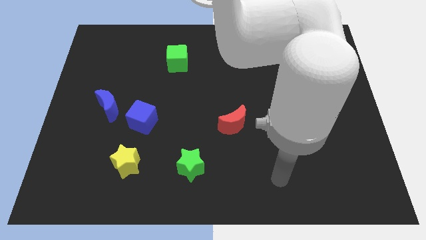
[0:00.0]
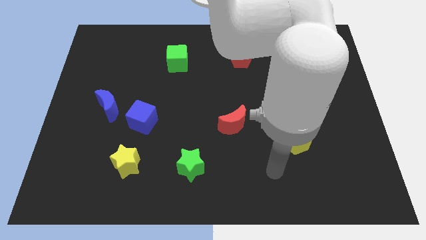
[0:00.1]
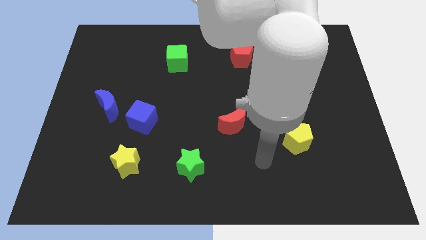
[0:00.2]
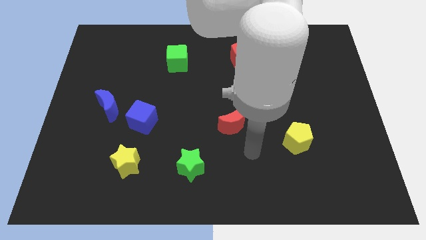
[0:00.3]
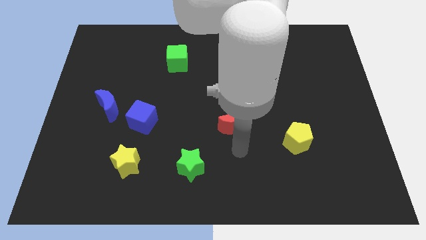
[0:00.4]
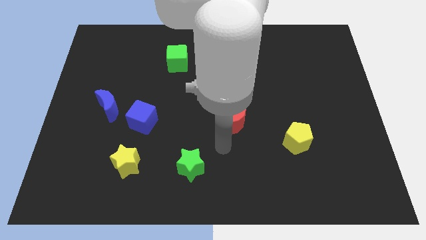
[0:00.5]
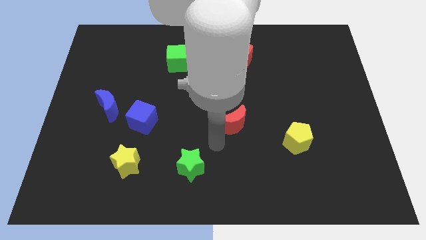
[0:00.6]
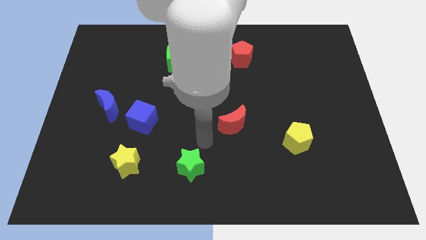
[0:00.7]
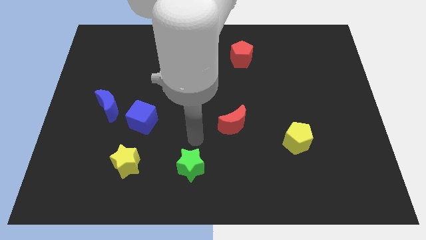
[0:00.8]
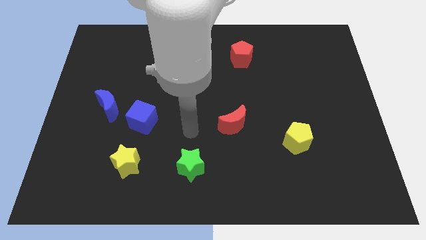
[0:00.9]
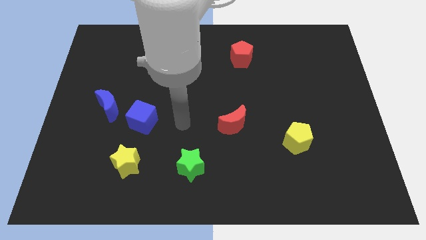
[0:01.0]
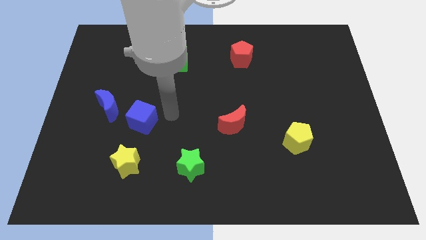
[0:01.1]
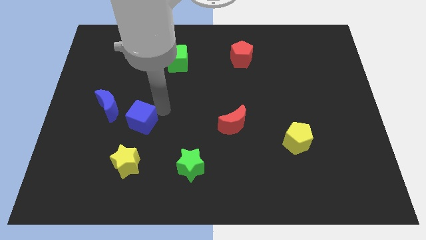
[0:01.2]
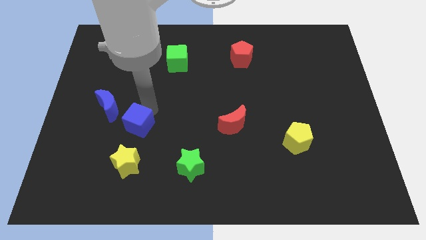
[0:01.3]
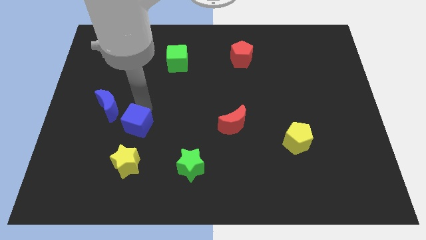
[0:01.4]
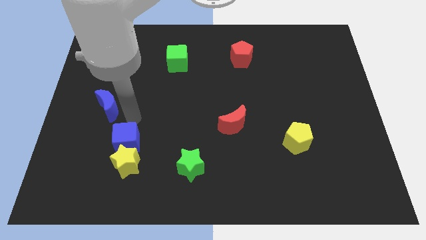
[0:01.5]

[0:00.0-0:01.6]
pull the blue moon apart from the blue cube

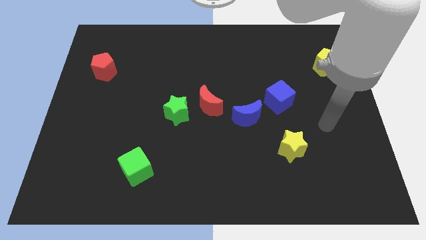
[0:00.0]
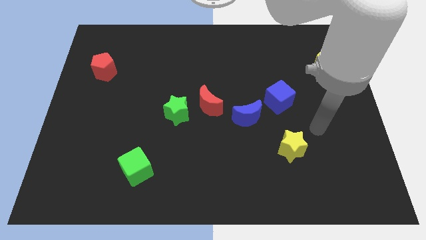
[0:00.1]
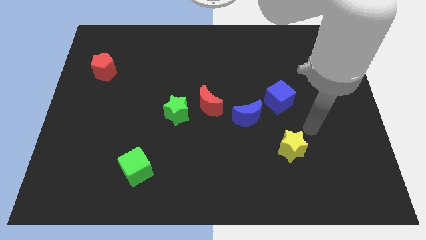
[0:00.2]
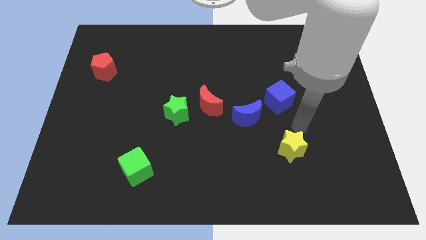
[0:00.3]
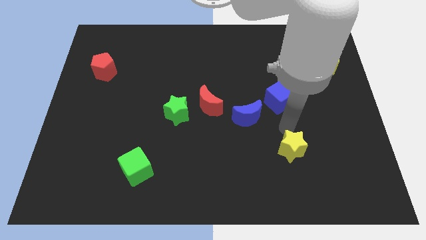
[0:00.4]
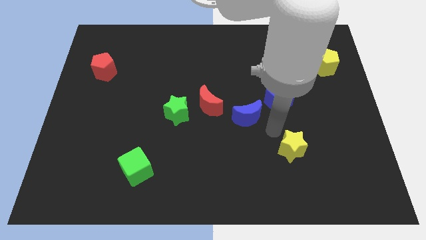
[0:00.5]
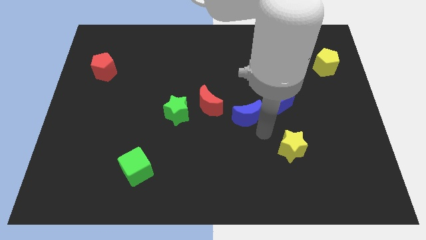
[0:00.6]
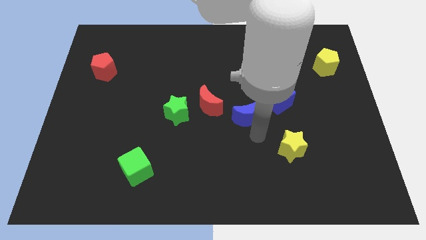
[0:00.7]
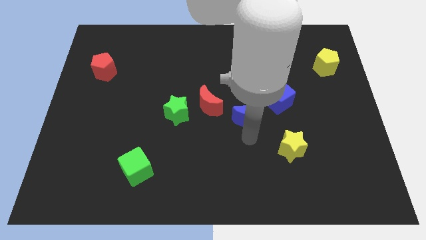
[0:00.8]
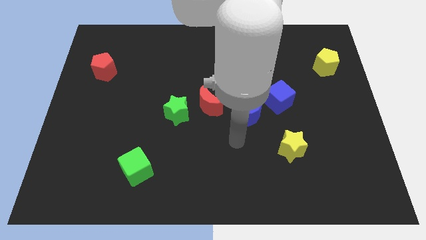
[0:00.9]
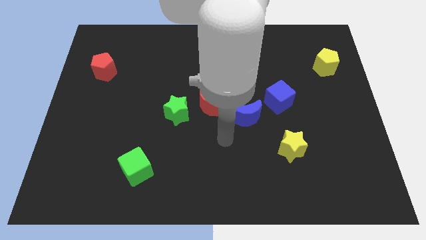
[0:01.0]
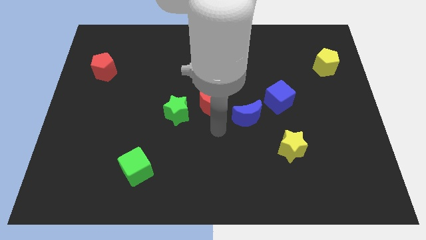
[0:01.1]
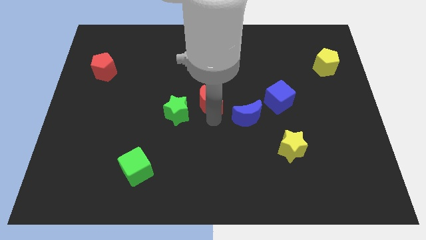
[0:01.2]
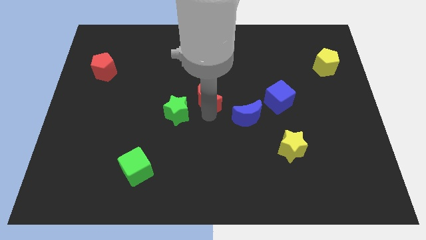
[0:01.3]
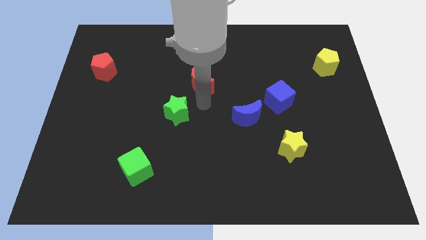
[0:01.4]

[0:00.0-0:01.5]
pull the green star apart from the red moon

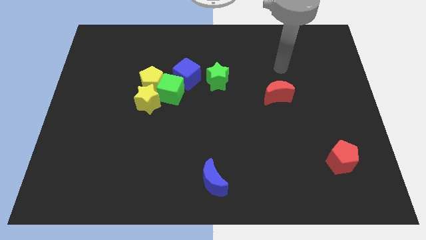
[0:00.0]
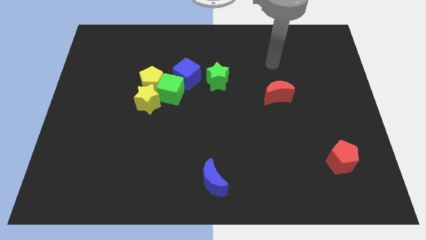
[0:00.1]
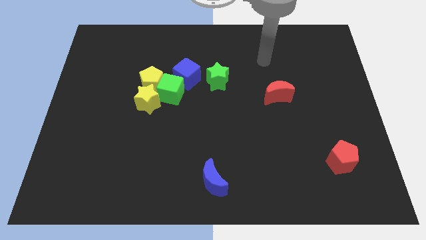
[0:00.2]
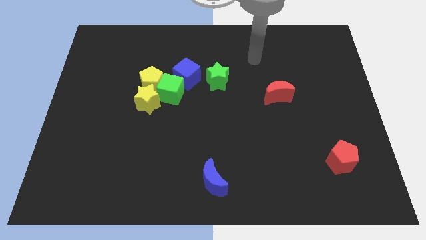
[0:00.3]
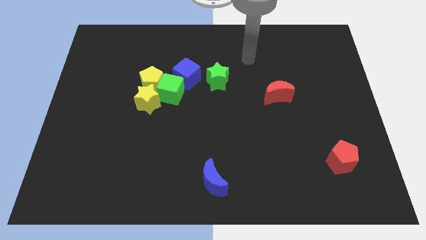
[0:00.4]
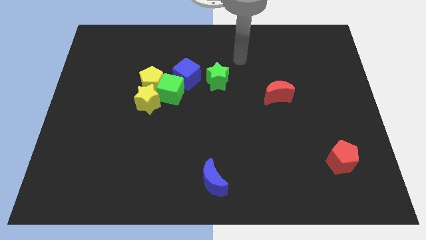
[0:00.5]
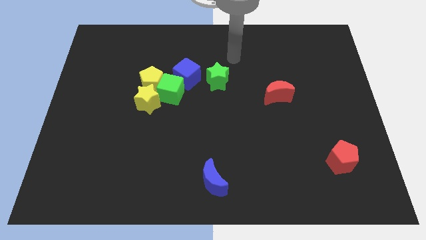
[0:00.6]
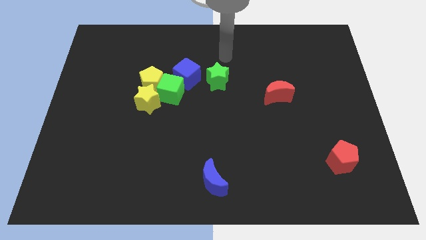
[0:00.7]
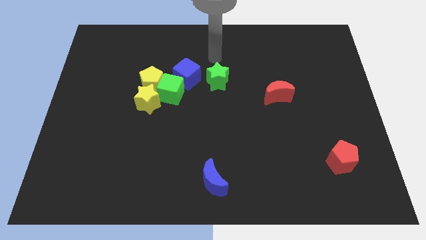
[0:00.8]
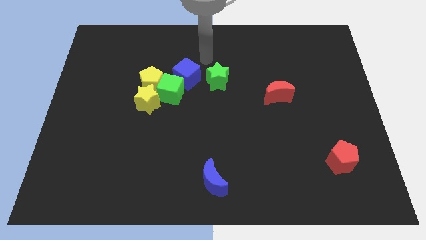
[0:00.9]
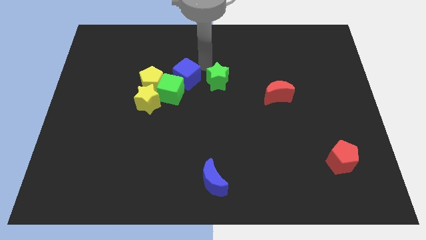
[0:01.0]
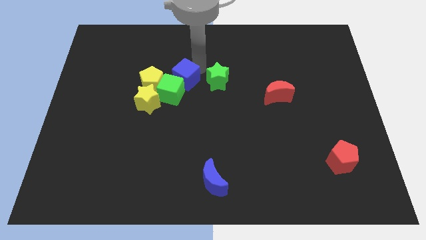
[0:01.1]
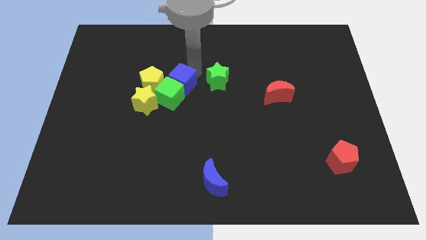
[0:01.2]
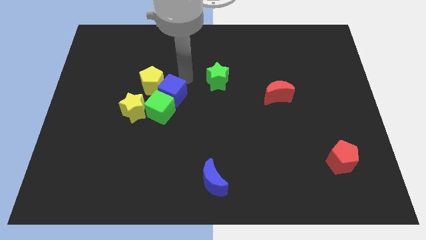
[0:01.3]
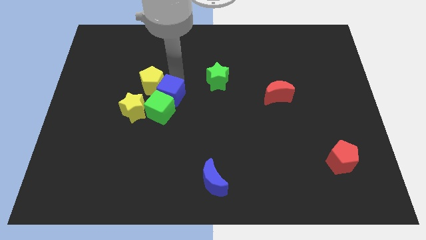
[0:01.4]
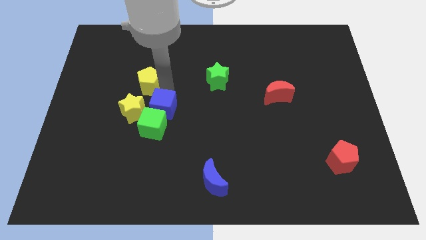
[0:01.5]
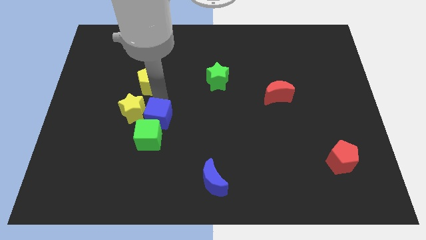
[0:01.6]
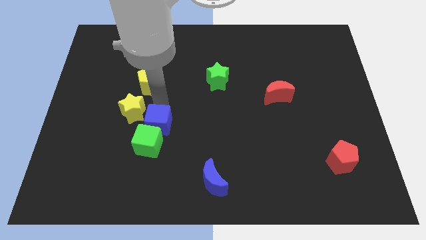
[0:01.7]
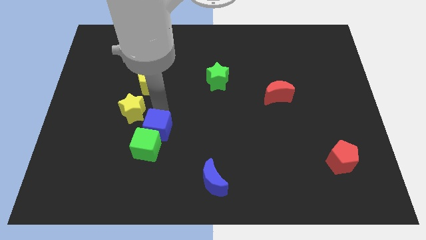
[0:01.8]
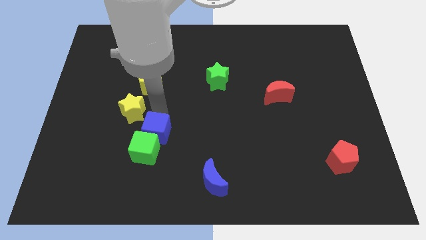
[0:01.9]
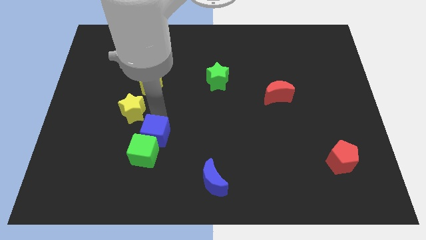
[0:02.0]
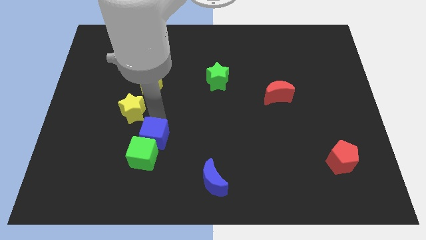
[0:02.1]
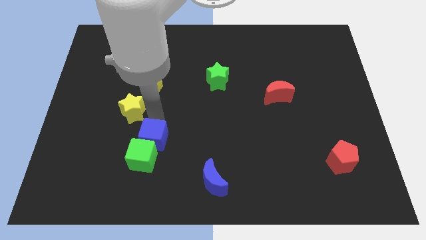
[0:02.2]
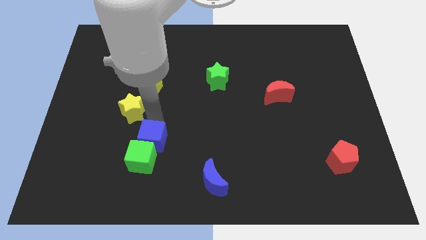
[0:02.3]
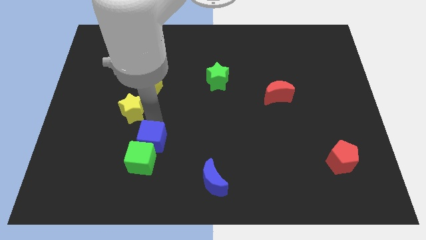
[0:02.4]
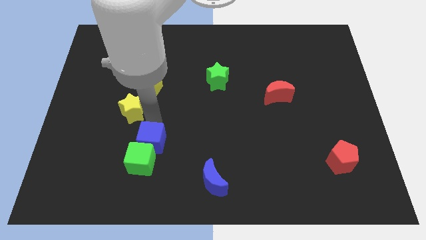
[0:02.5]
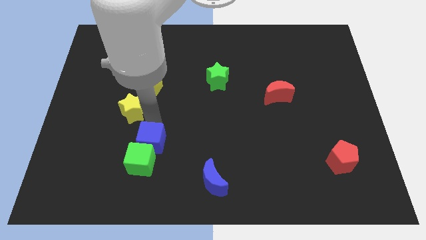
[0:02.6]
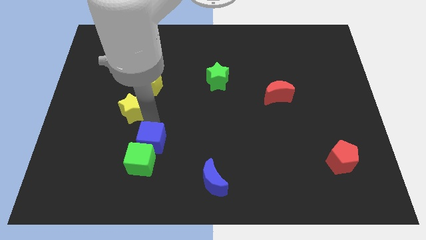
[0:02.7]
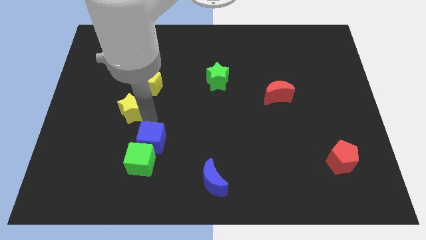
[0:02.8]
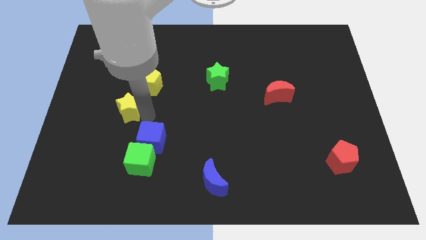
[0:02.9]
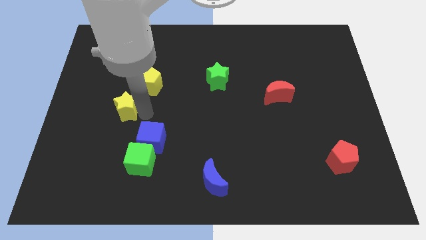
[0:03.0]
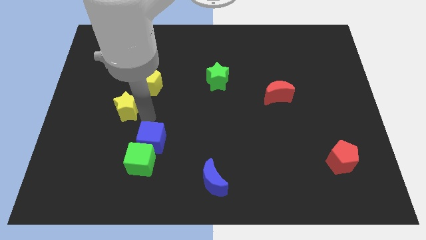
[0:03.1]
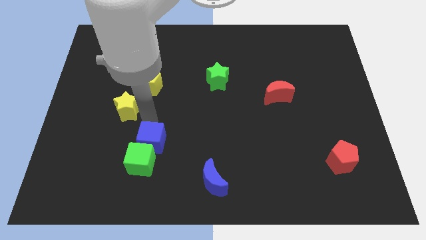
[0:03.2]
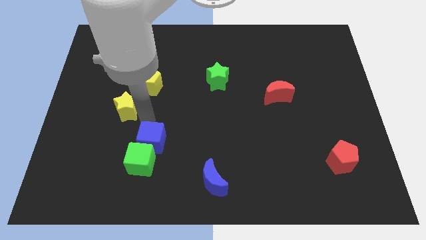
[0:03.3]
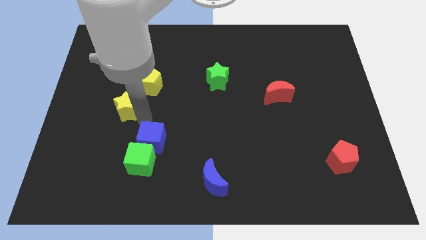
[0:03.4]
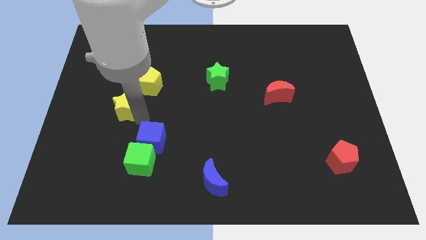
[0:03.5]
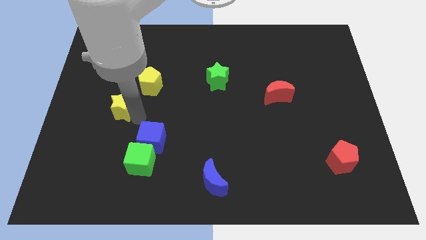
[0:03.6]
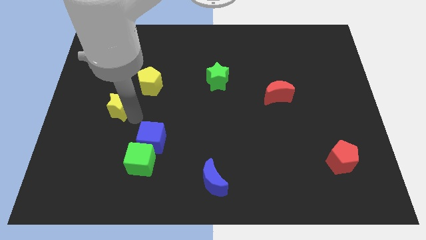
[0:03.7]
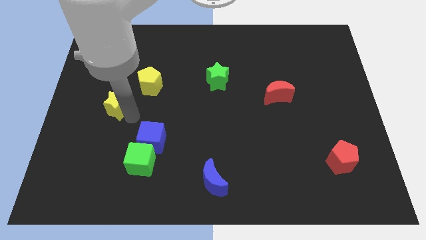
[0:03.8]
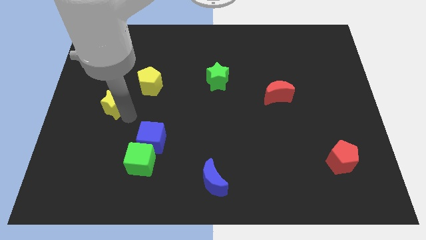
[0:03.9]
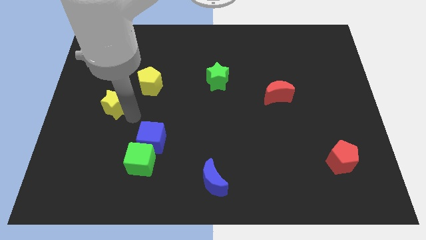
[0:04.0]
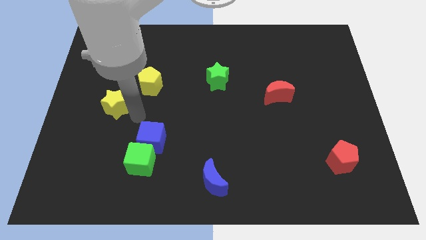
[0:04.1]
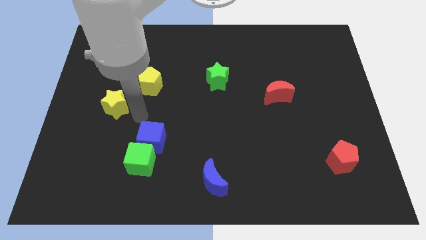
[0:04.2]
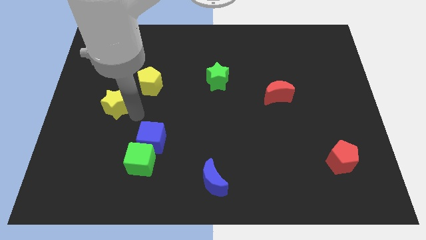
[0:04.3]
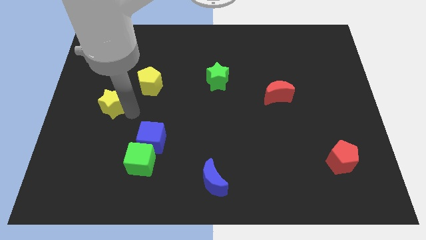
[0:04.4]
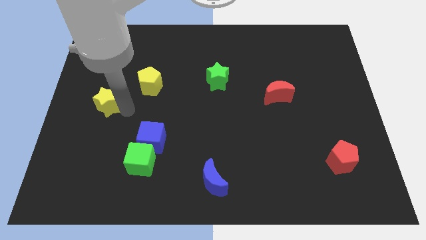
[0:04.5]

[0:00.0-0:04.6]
pull the yellow star apart from the yellow pentagon and green cube

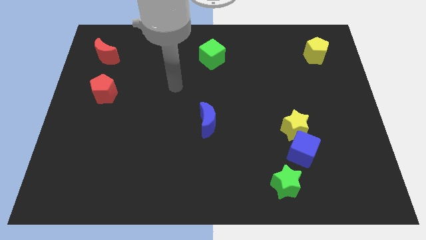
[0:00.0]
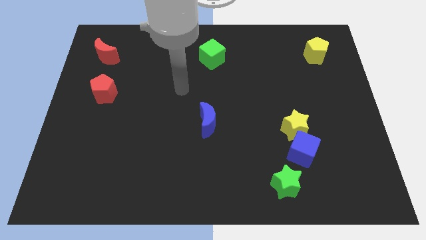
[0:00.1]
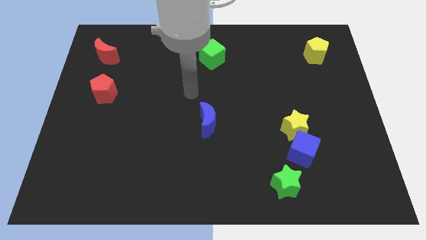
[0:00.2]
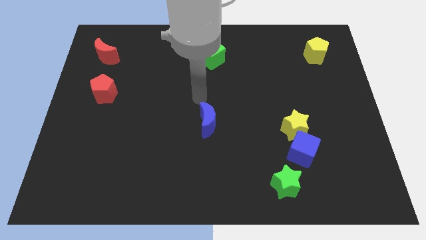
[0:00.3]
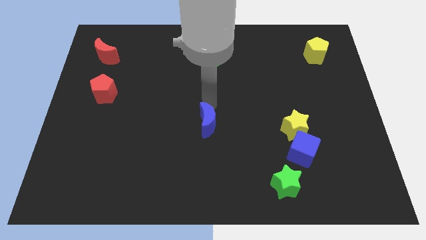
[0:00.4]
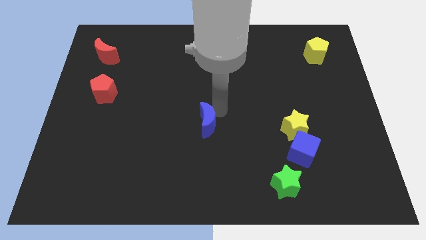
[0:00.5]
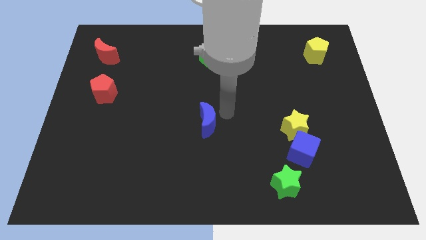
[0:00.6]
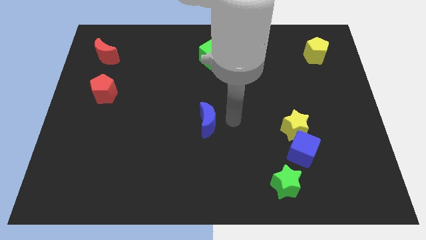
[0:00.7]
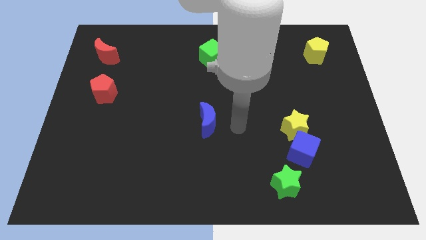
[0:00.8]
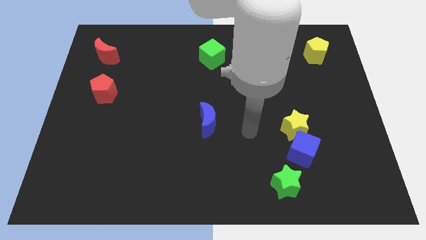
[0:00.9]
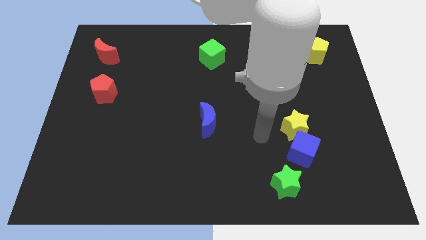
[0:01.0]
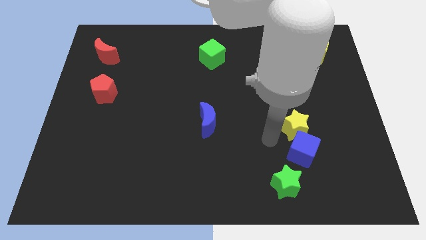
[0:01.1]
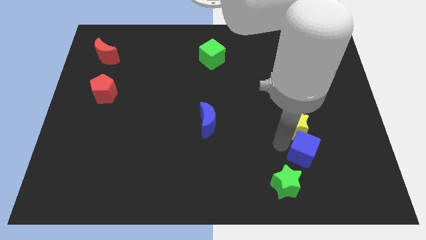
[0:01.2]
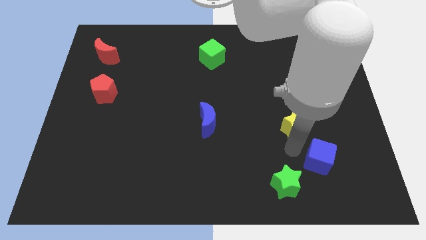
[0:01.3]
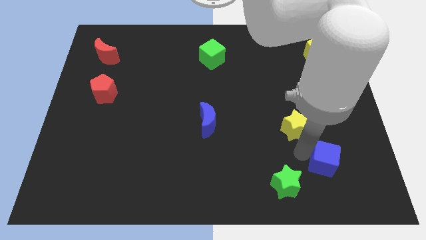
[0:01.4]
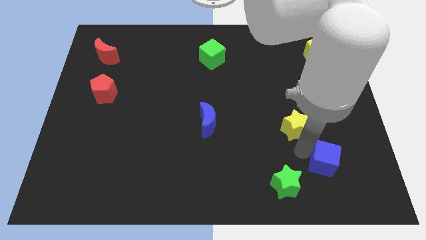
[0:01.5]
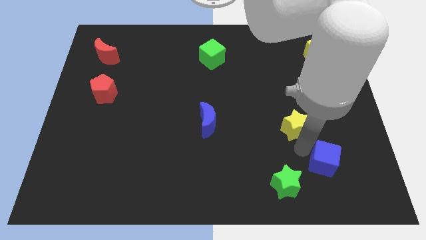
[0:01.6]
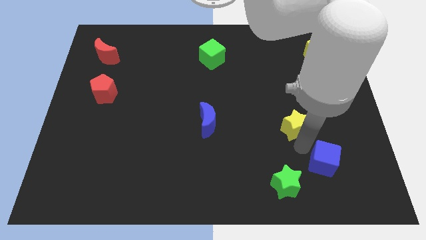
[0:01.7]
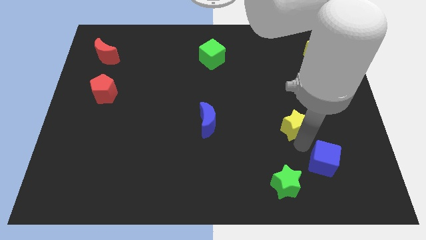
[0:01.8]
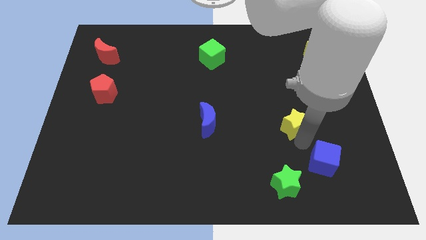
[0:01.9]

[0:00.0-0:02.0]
move the yellow star away from the blue cube
